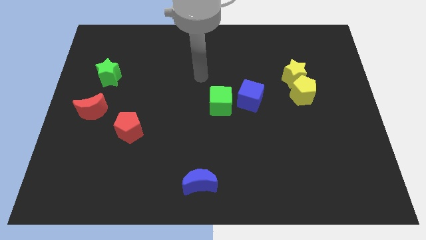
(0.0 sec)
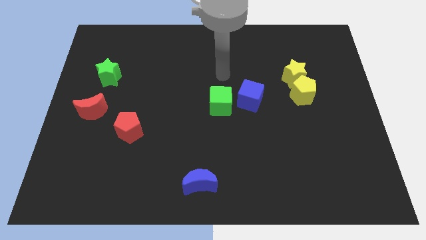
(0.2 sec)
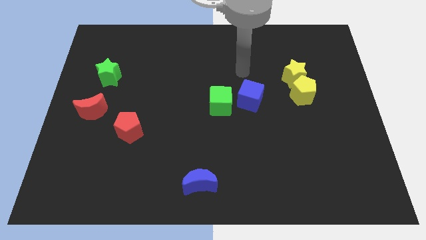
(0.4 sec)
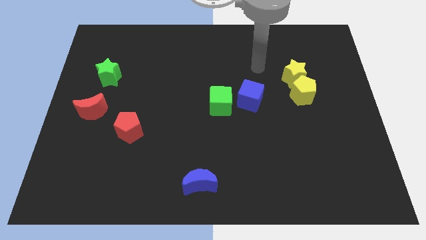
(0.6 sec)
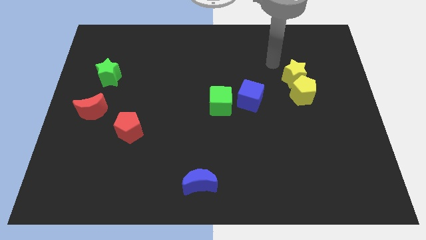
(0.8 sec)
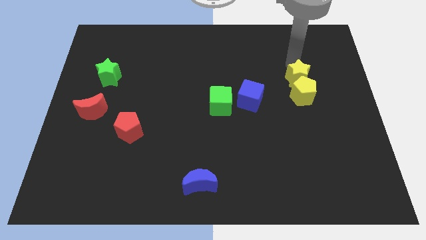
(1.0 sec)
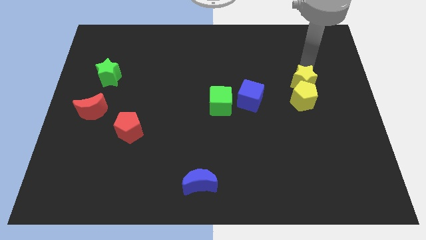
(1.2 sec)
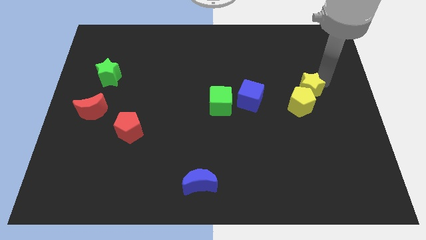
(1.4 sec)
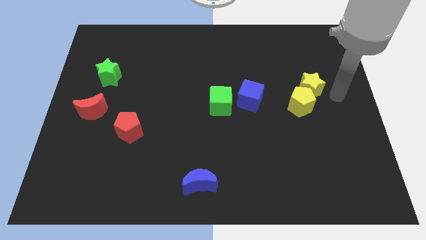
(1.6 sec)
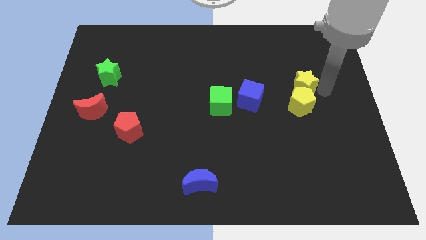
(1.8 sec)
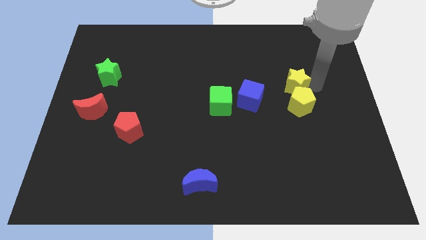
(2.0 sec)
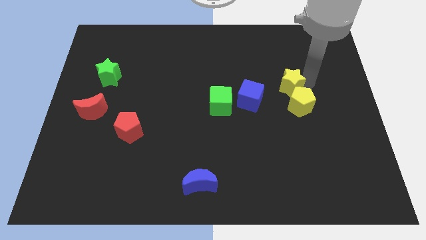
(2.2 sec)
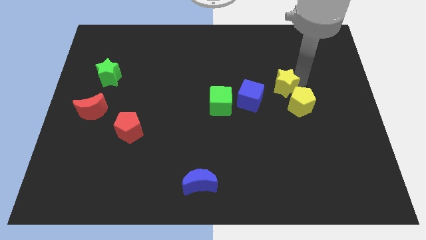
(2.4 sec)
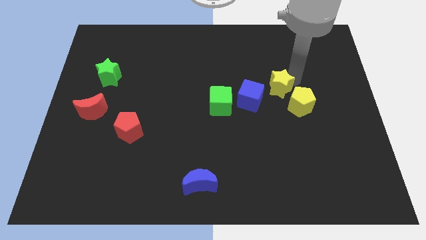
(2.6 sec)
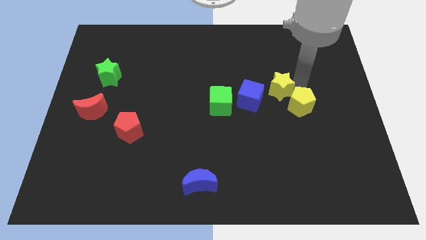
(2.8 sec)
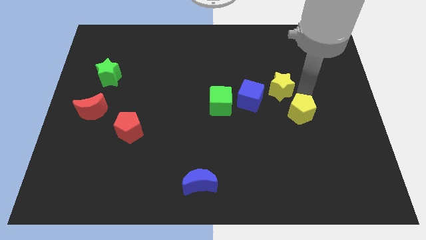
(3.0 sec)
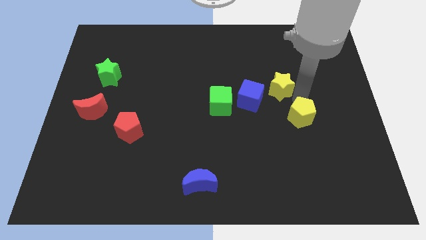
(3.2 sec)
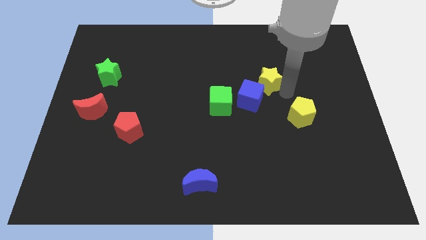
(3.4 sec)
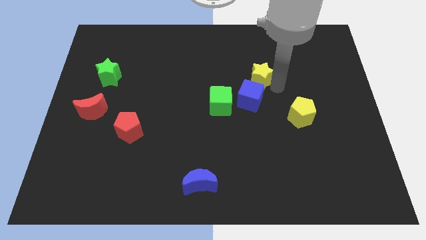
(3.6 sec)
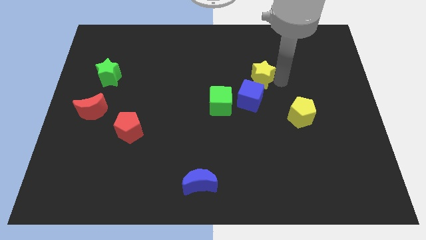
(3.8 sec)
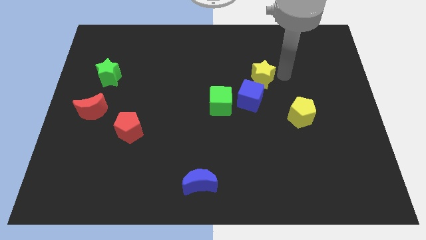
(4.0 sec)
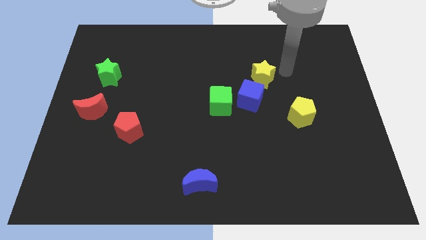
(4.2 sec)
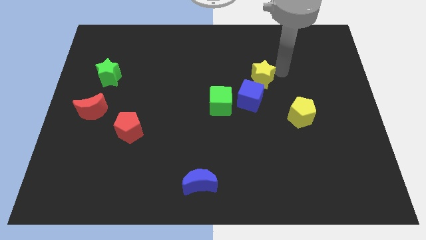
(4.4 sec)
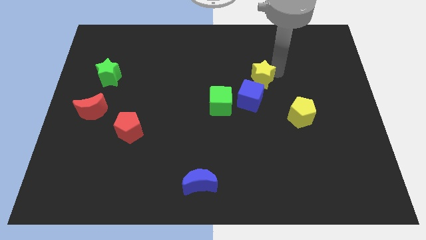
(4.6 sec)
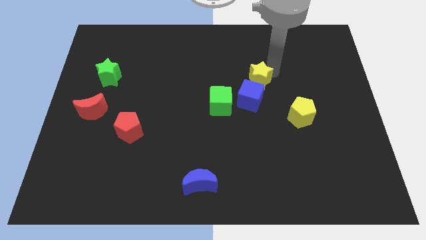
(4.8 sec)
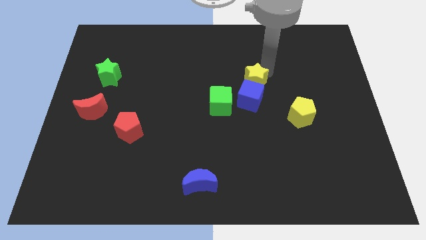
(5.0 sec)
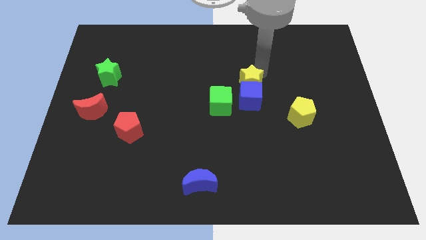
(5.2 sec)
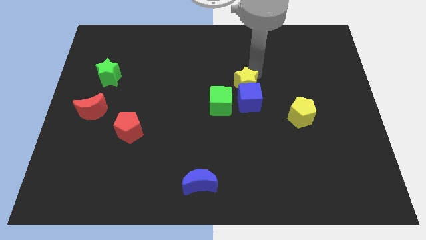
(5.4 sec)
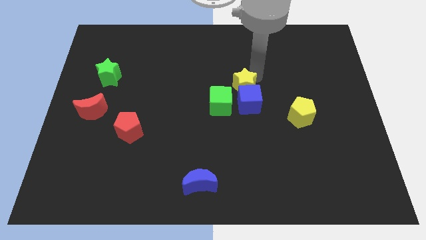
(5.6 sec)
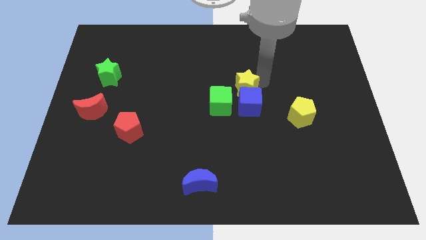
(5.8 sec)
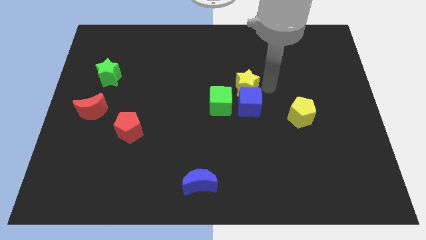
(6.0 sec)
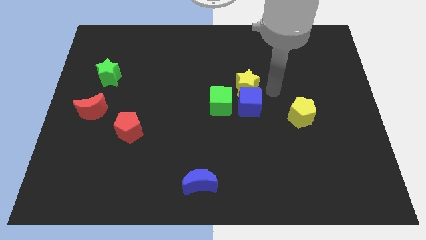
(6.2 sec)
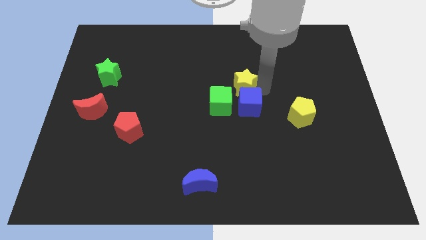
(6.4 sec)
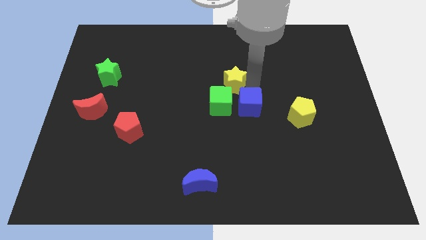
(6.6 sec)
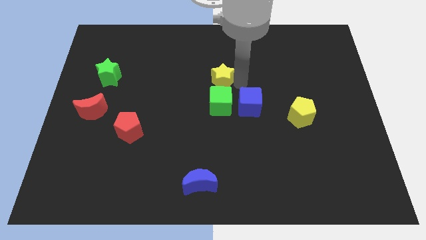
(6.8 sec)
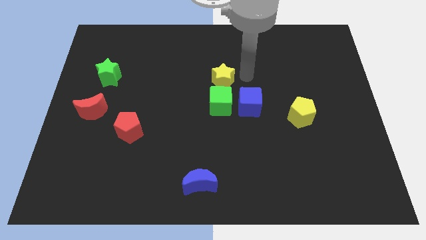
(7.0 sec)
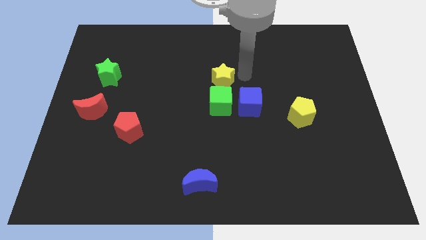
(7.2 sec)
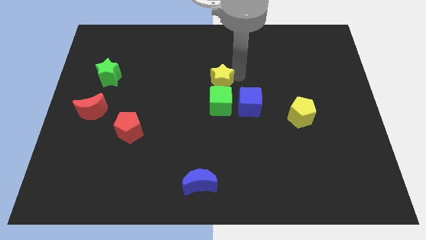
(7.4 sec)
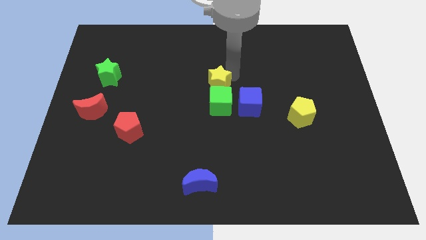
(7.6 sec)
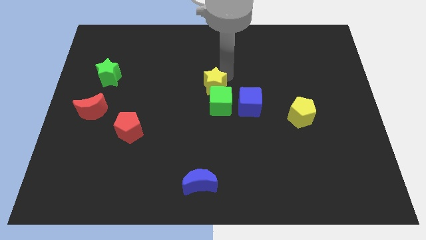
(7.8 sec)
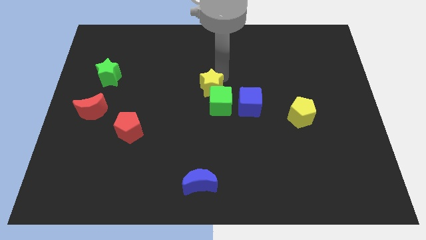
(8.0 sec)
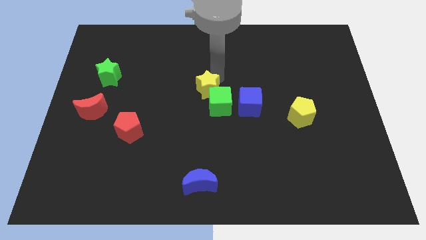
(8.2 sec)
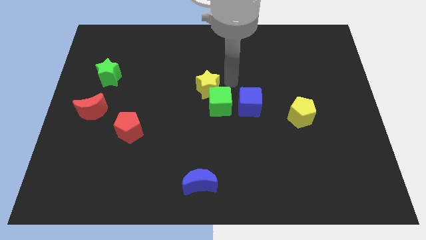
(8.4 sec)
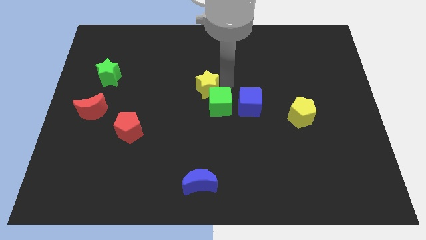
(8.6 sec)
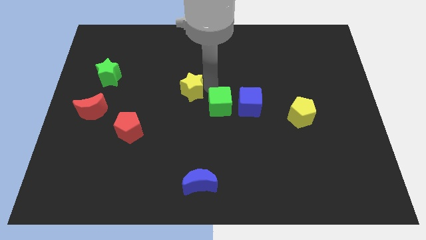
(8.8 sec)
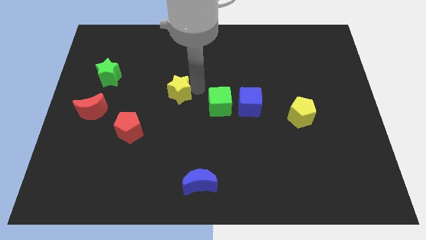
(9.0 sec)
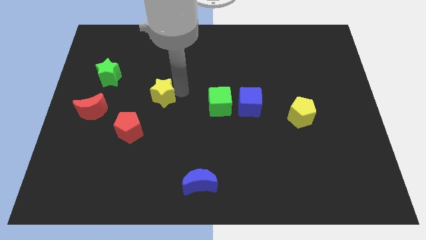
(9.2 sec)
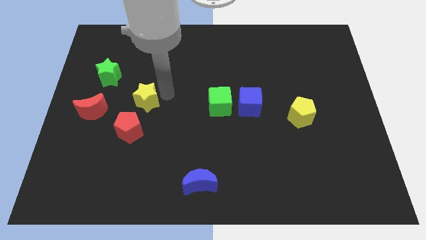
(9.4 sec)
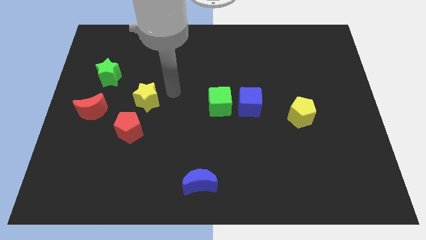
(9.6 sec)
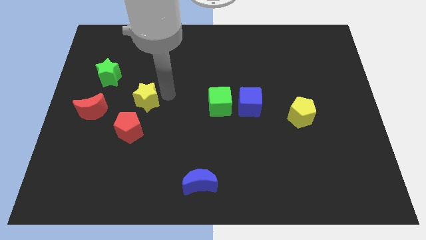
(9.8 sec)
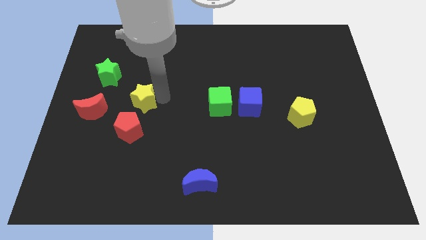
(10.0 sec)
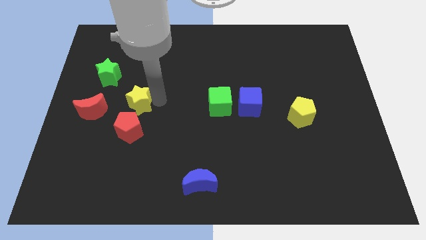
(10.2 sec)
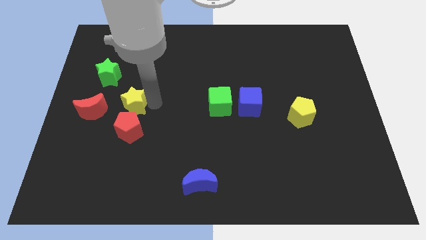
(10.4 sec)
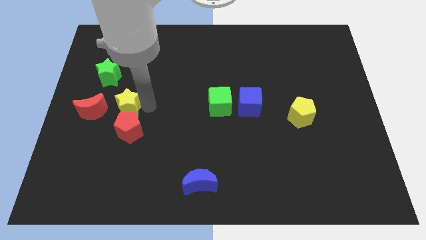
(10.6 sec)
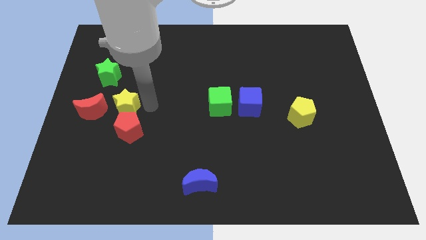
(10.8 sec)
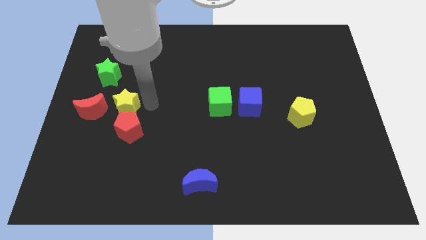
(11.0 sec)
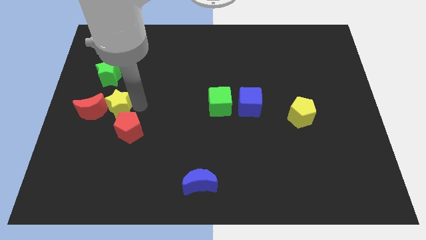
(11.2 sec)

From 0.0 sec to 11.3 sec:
push the yellow star towards the red moon

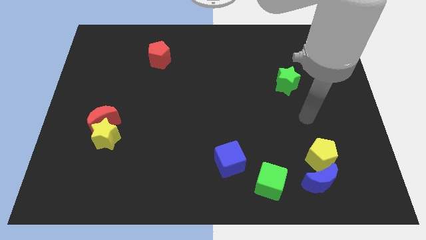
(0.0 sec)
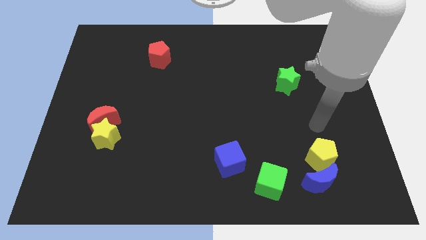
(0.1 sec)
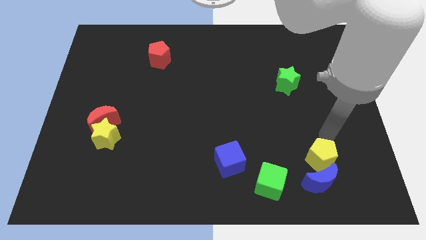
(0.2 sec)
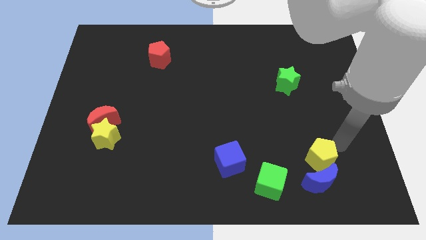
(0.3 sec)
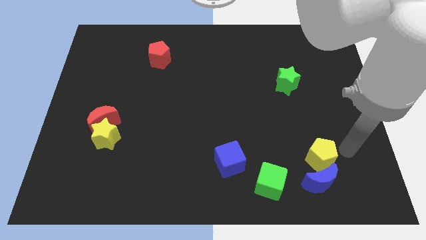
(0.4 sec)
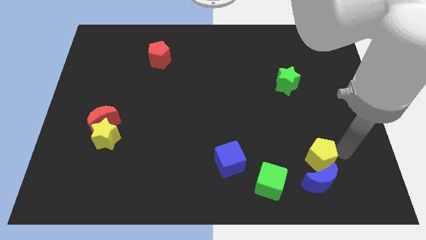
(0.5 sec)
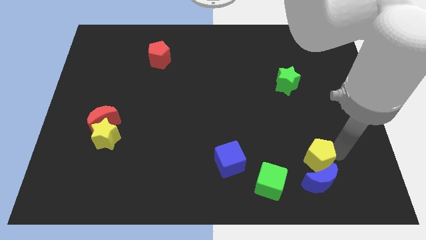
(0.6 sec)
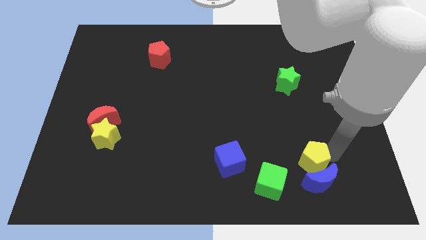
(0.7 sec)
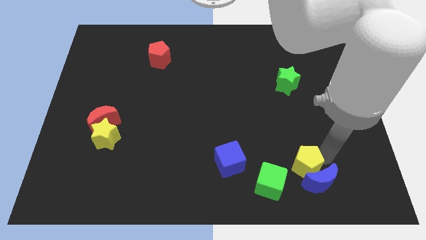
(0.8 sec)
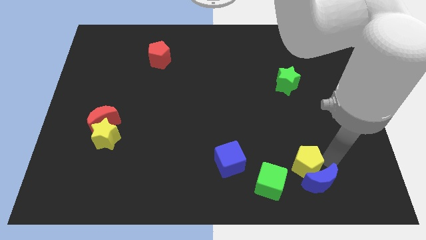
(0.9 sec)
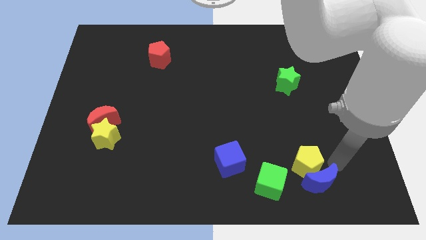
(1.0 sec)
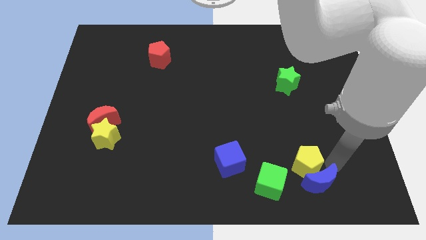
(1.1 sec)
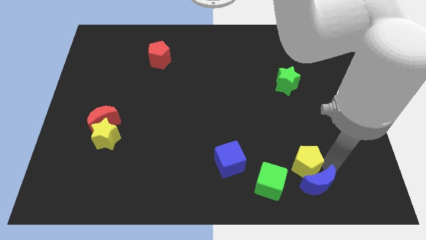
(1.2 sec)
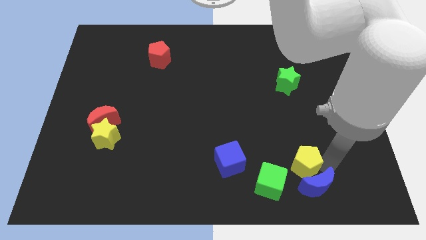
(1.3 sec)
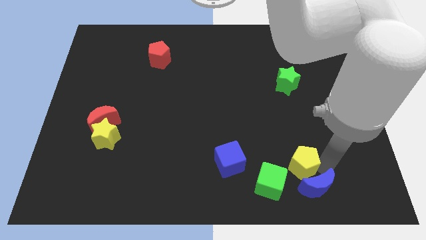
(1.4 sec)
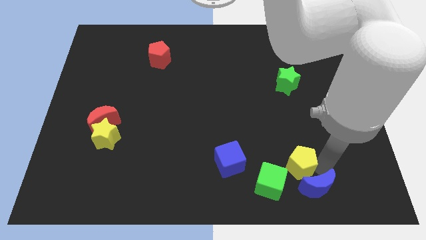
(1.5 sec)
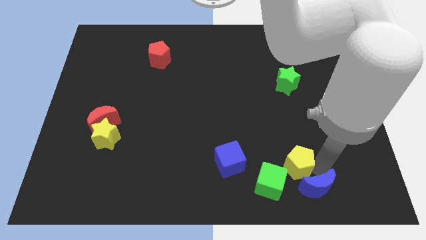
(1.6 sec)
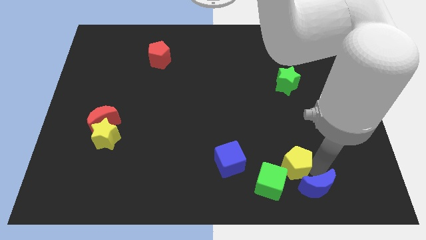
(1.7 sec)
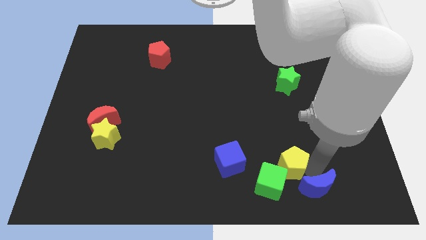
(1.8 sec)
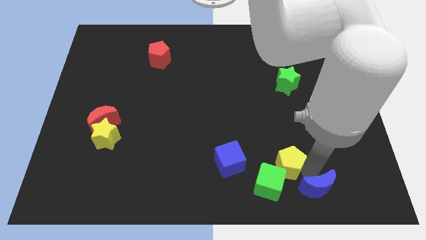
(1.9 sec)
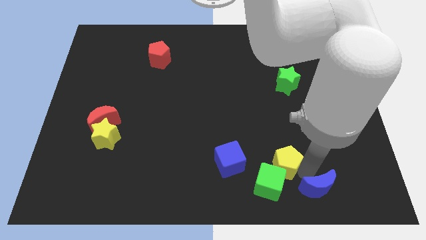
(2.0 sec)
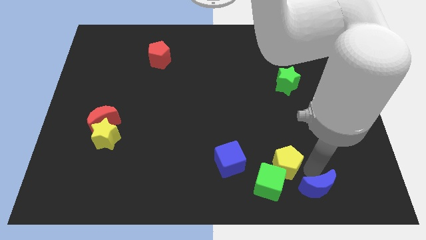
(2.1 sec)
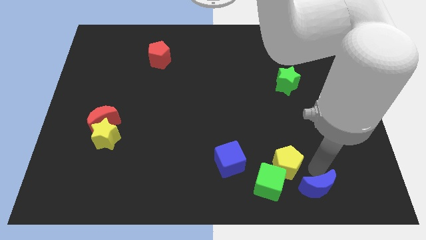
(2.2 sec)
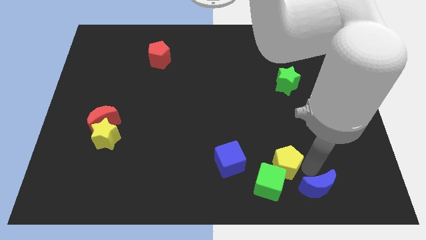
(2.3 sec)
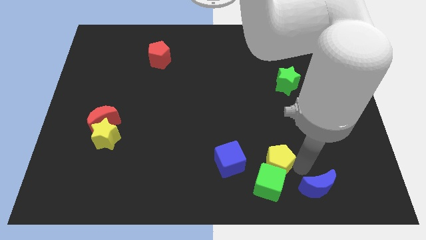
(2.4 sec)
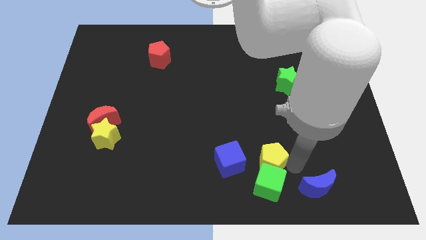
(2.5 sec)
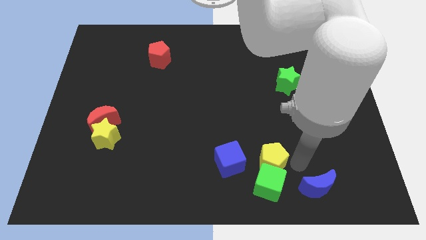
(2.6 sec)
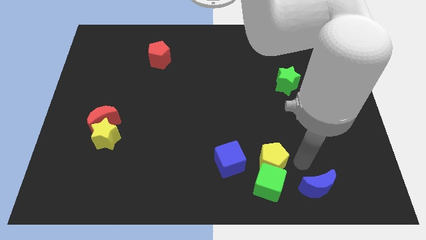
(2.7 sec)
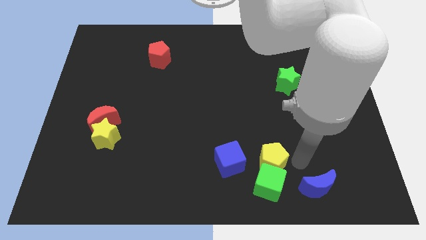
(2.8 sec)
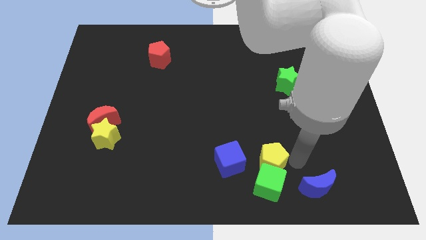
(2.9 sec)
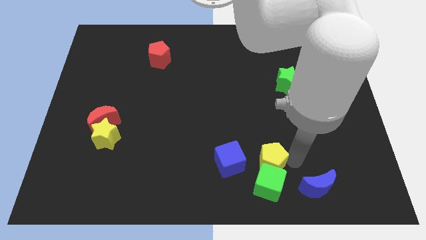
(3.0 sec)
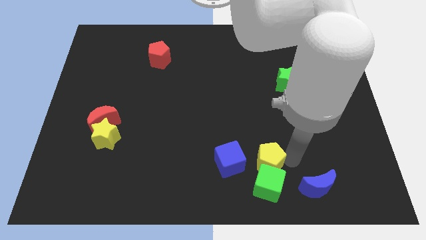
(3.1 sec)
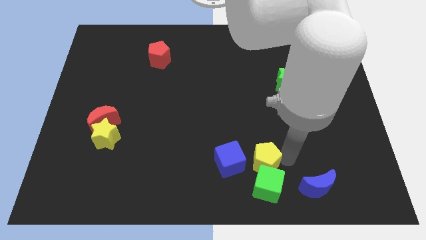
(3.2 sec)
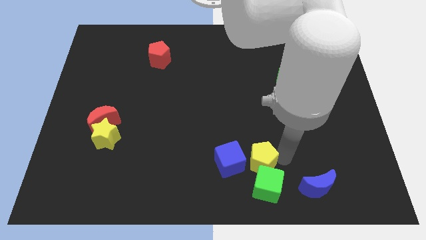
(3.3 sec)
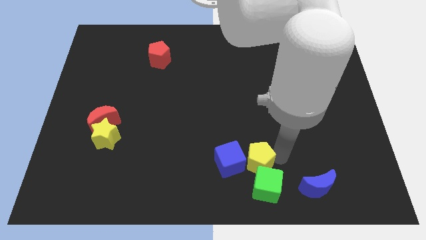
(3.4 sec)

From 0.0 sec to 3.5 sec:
push the yellow pentagon close to the blue cube
